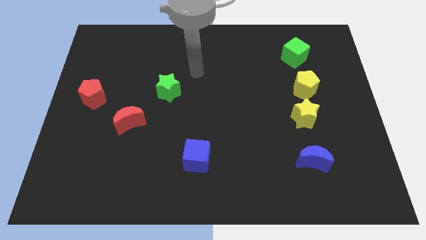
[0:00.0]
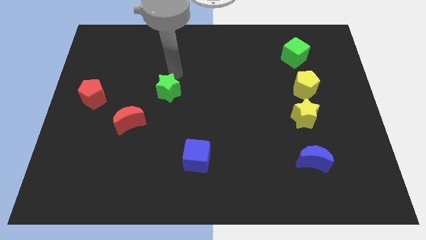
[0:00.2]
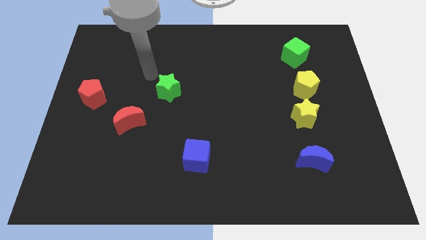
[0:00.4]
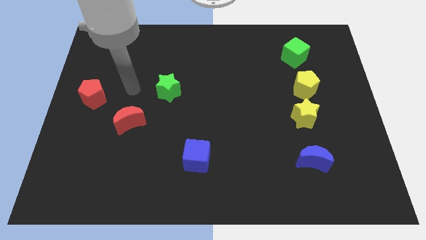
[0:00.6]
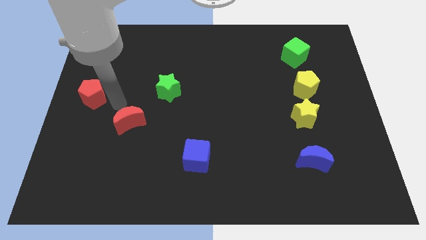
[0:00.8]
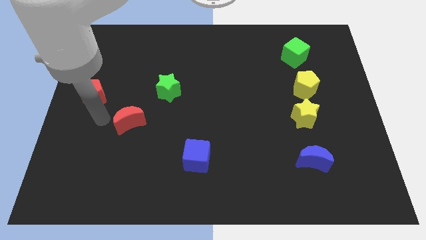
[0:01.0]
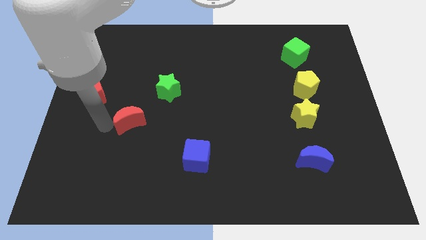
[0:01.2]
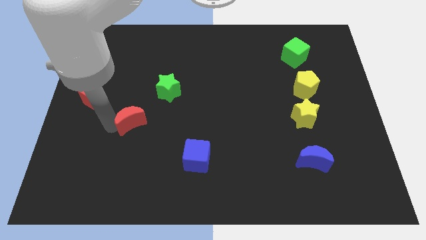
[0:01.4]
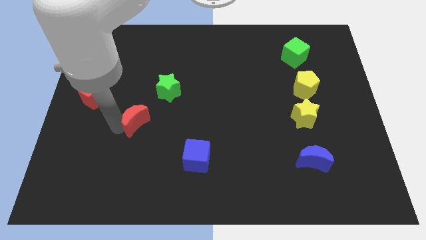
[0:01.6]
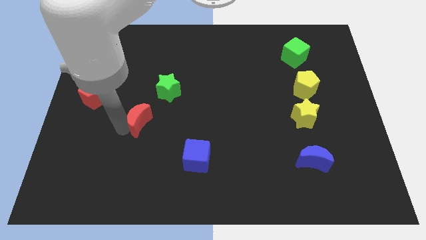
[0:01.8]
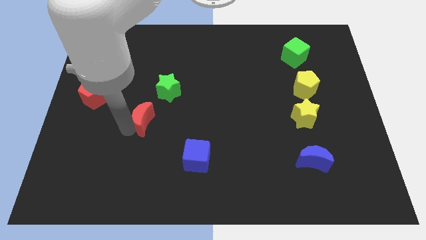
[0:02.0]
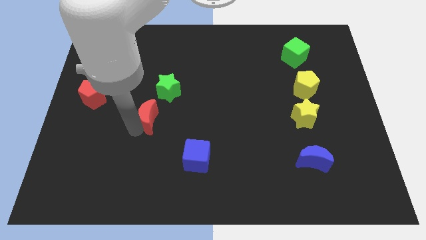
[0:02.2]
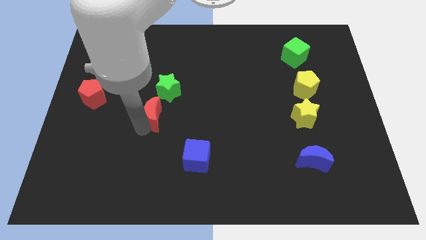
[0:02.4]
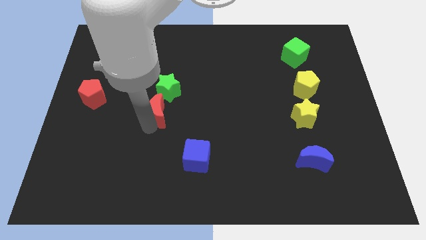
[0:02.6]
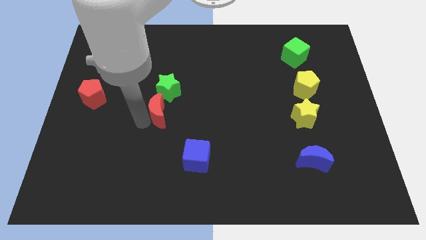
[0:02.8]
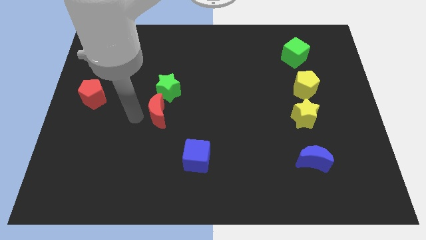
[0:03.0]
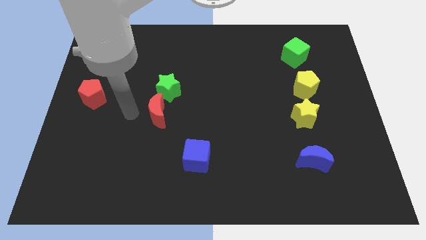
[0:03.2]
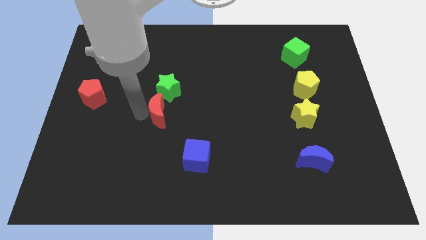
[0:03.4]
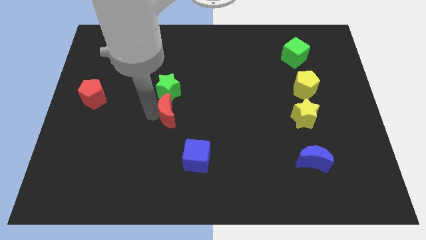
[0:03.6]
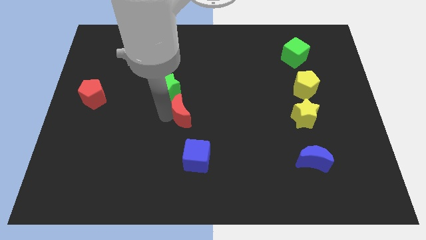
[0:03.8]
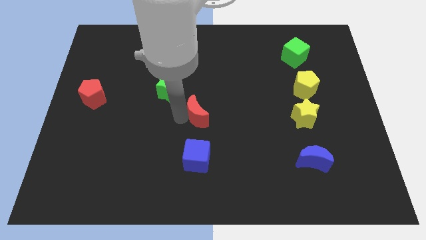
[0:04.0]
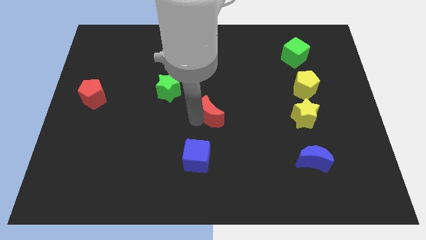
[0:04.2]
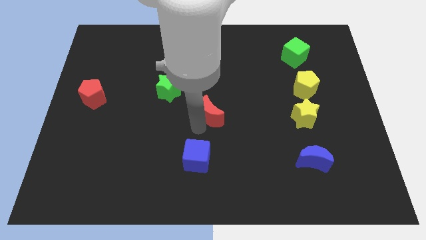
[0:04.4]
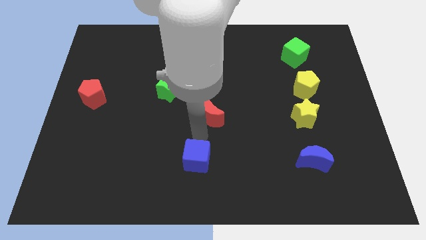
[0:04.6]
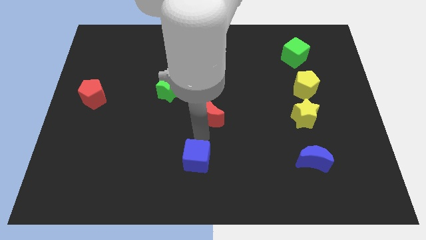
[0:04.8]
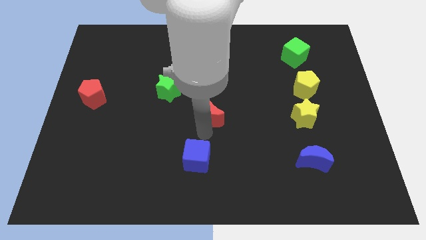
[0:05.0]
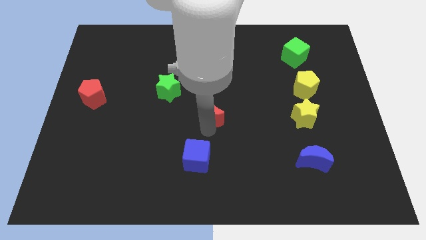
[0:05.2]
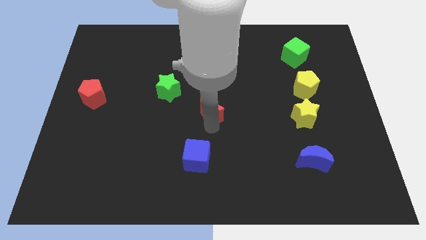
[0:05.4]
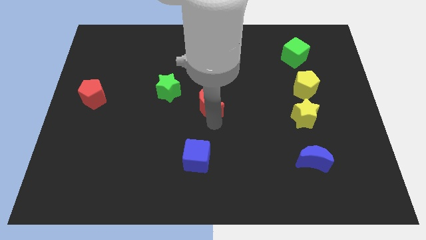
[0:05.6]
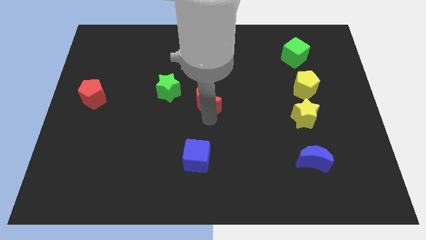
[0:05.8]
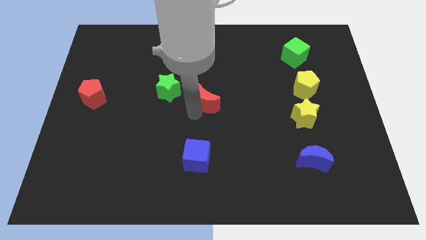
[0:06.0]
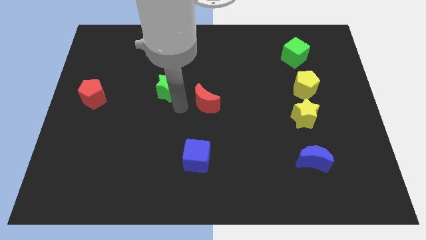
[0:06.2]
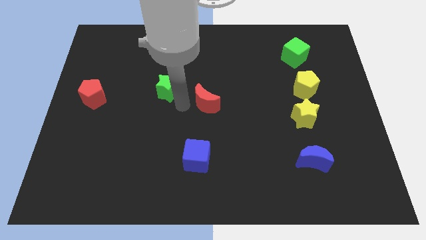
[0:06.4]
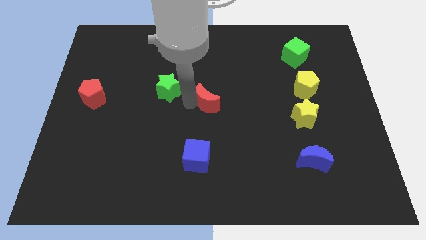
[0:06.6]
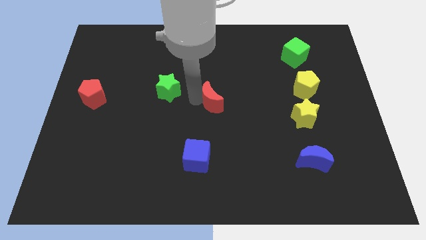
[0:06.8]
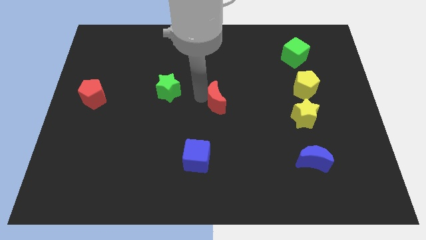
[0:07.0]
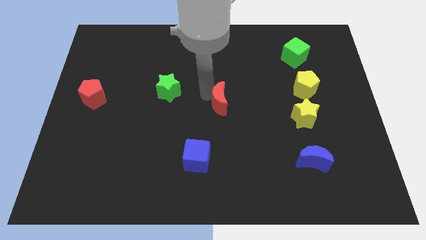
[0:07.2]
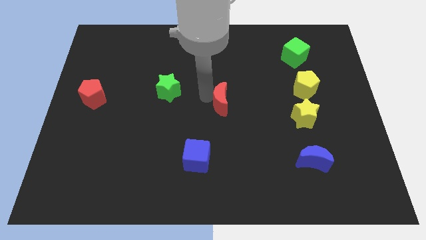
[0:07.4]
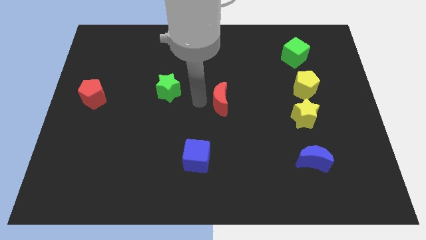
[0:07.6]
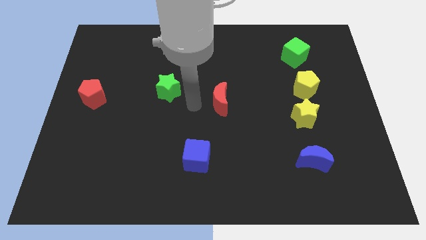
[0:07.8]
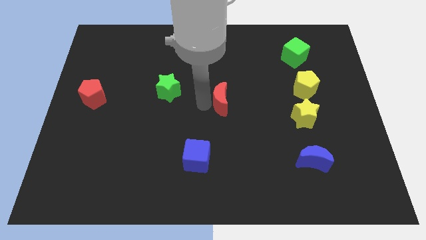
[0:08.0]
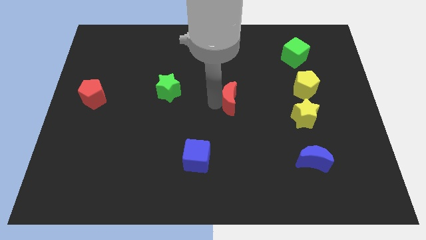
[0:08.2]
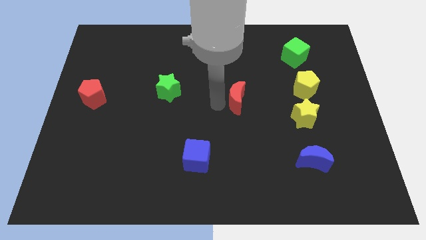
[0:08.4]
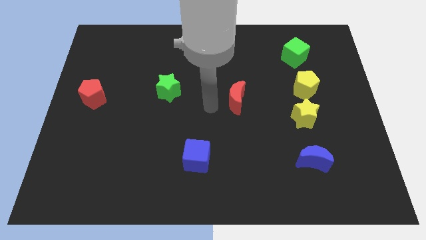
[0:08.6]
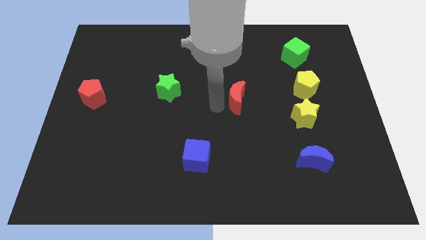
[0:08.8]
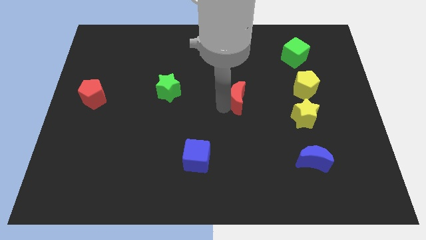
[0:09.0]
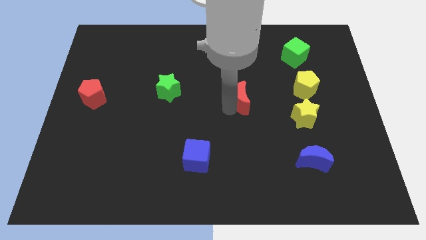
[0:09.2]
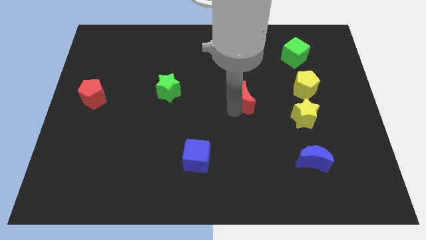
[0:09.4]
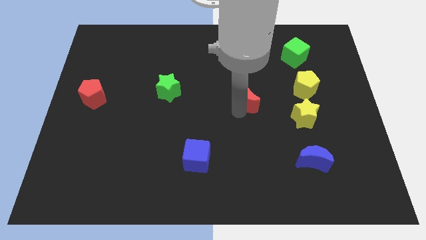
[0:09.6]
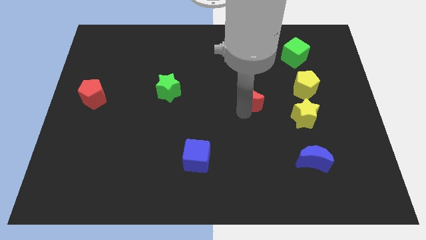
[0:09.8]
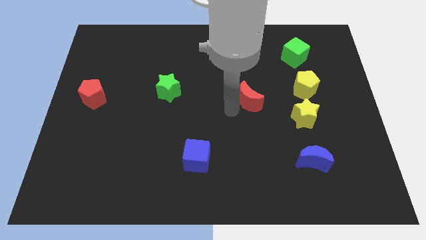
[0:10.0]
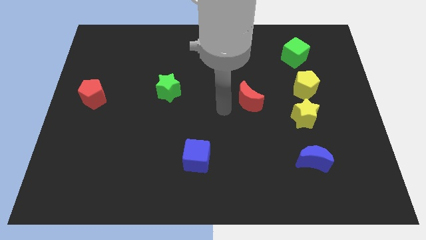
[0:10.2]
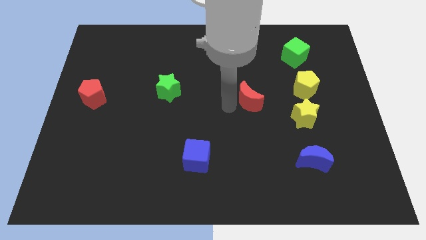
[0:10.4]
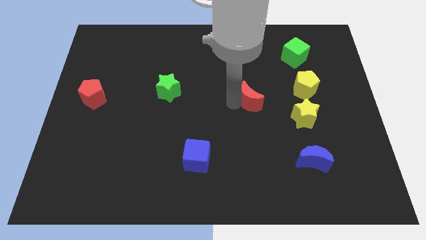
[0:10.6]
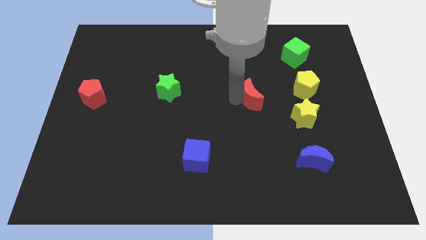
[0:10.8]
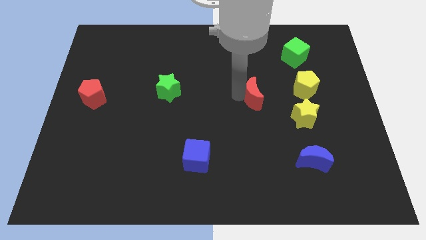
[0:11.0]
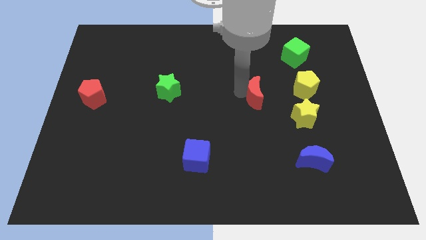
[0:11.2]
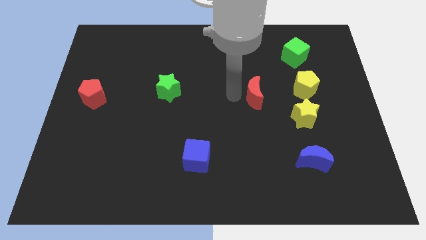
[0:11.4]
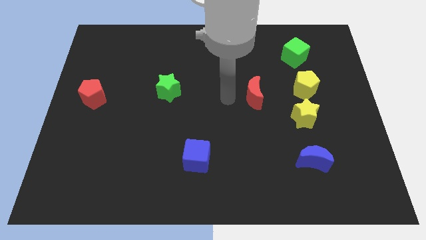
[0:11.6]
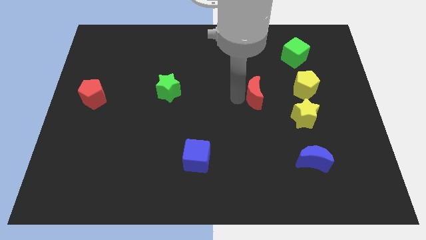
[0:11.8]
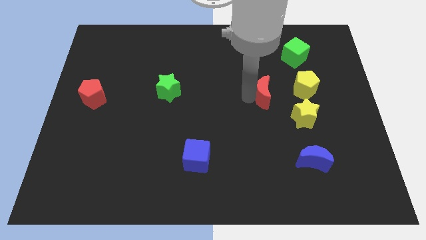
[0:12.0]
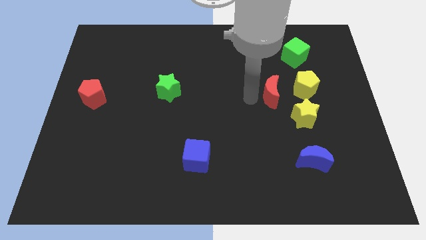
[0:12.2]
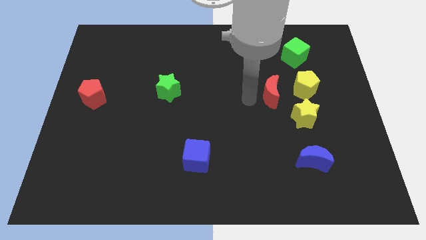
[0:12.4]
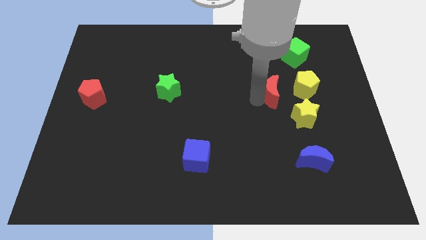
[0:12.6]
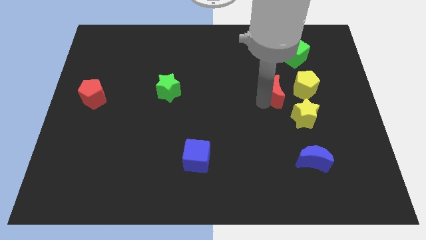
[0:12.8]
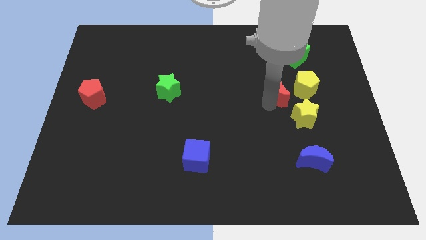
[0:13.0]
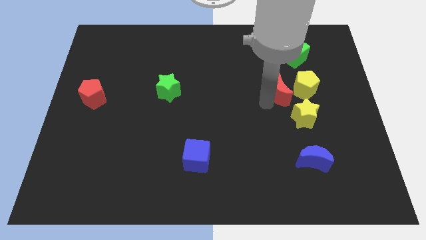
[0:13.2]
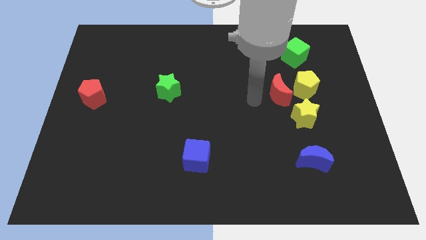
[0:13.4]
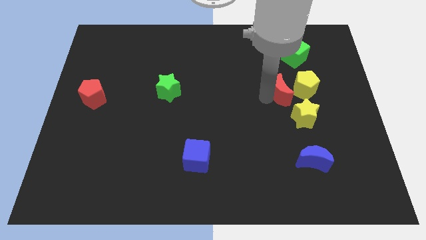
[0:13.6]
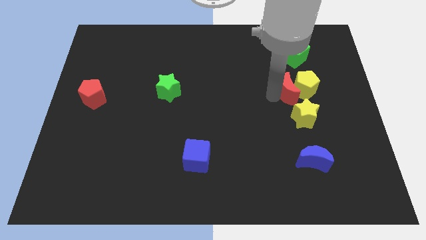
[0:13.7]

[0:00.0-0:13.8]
slide the red moon next to the yellow pentagon
